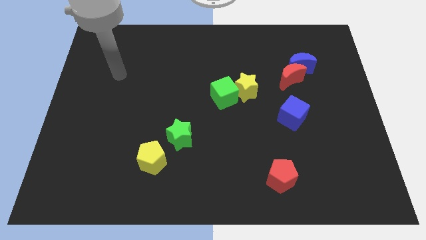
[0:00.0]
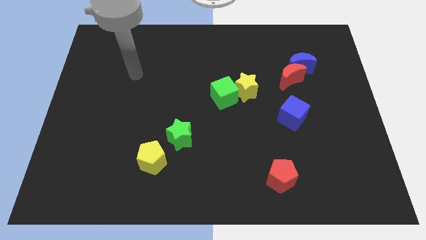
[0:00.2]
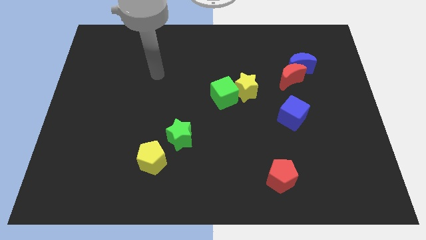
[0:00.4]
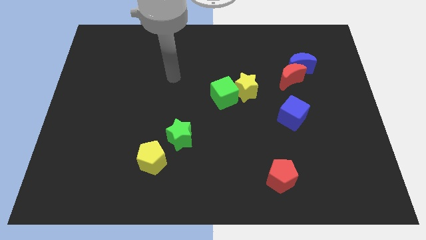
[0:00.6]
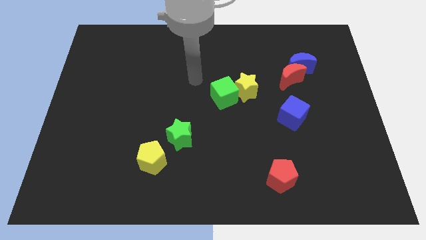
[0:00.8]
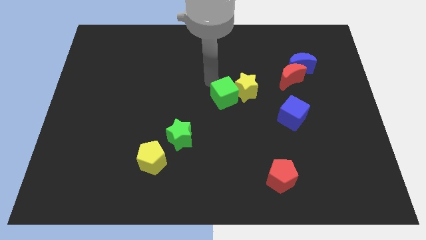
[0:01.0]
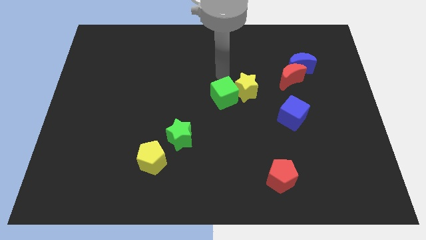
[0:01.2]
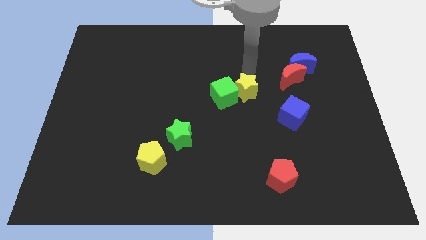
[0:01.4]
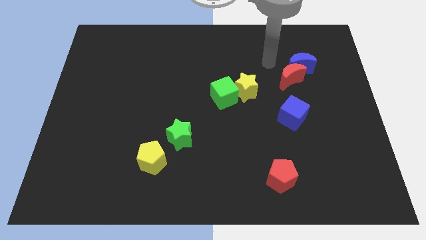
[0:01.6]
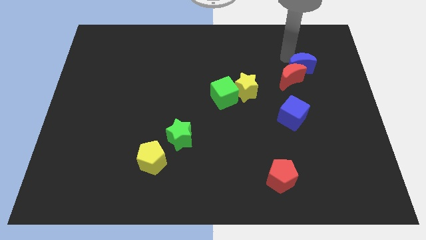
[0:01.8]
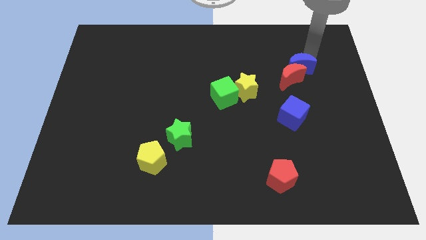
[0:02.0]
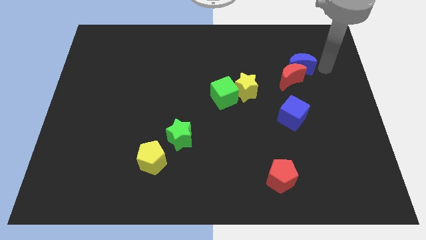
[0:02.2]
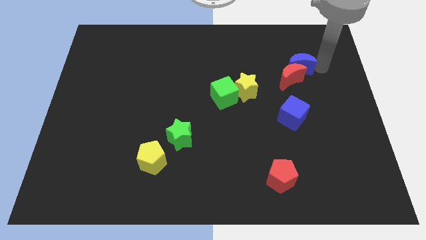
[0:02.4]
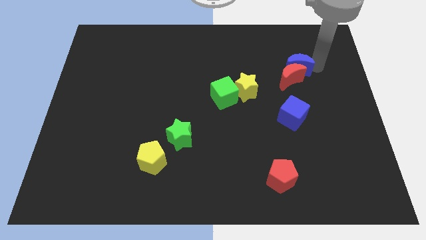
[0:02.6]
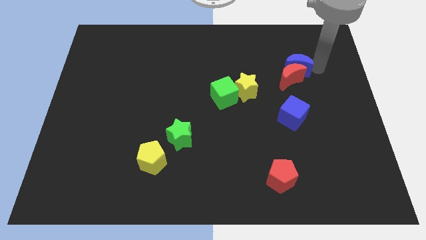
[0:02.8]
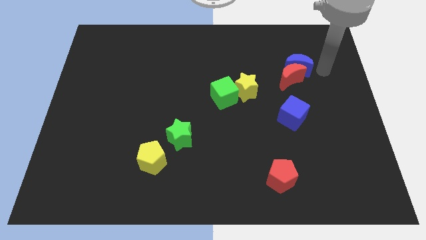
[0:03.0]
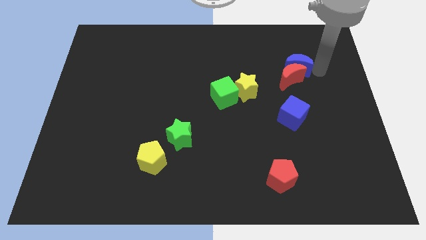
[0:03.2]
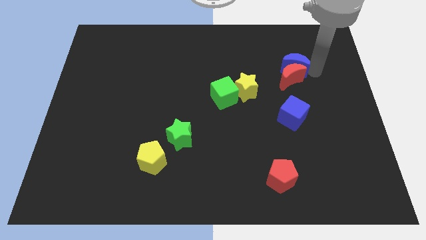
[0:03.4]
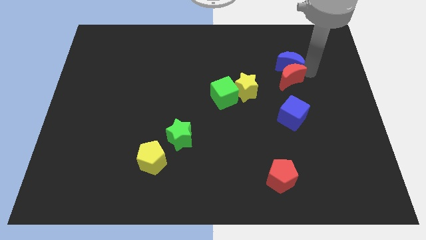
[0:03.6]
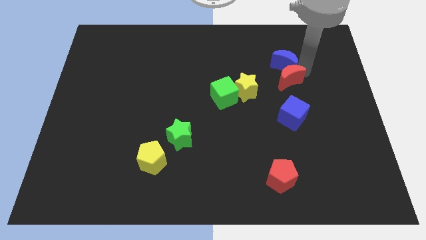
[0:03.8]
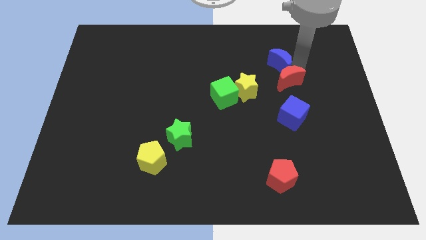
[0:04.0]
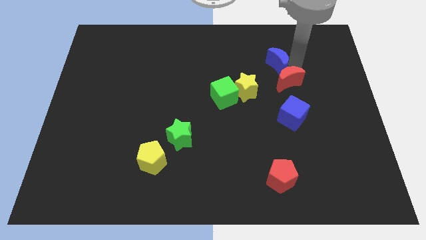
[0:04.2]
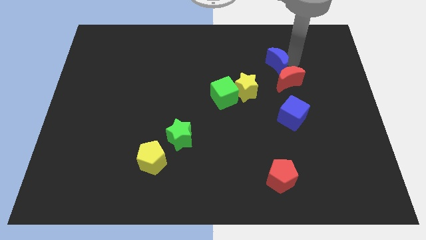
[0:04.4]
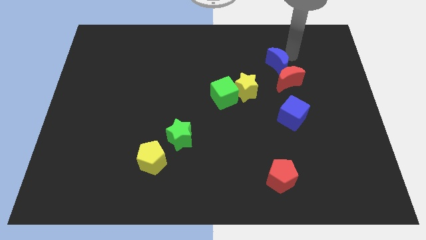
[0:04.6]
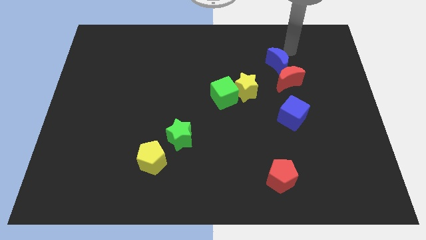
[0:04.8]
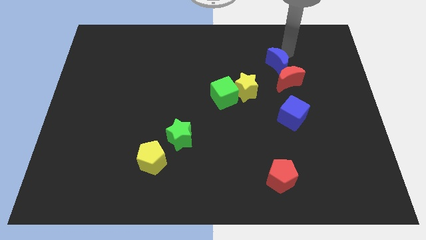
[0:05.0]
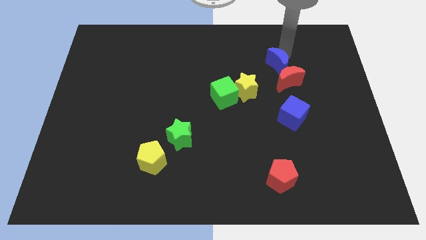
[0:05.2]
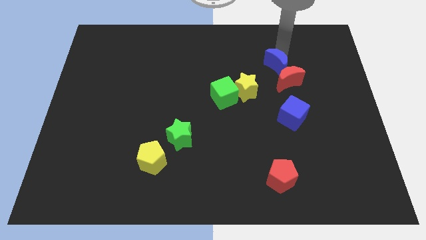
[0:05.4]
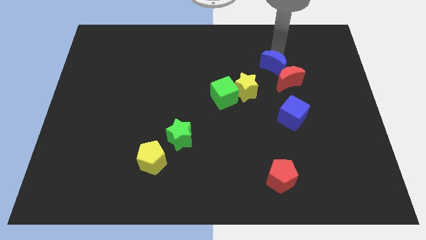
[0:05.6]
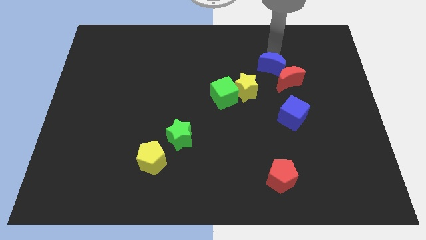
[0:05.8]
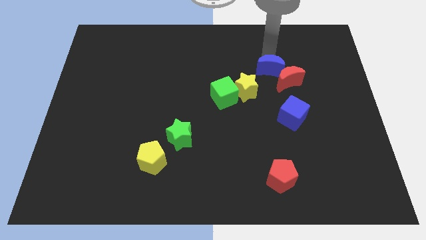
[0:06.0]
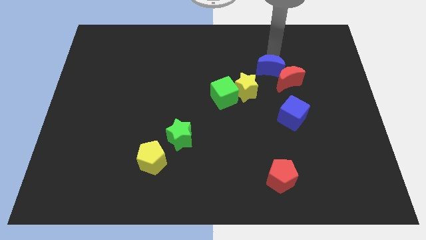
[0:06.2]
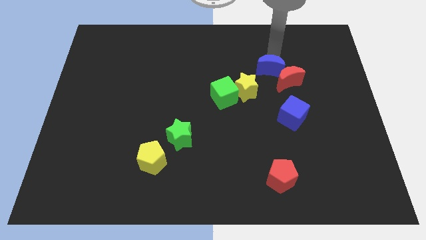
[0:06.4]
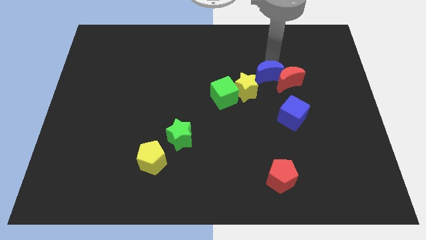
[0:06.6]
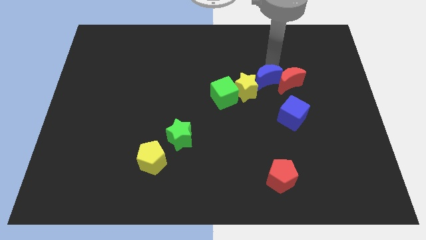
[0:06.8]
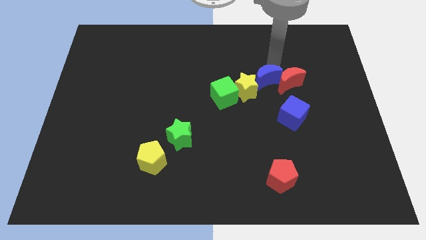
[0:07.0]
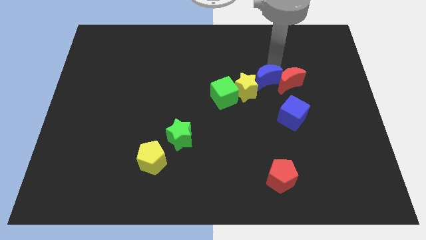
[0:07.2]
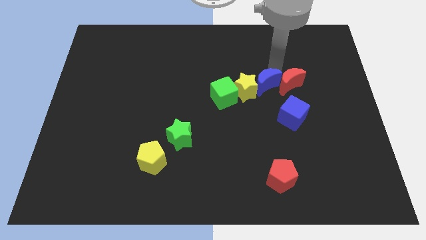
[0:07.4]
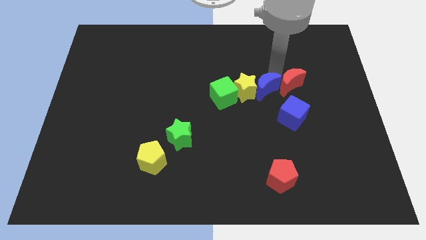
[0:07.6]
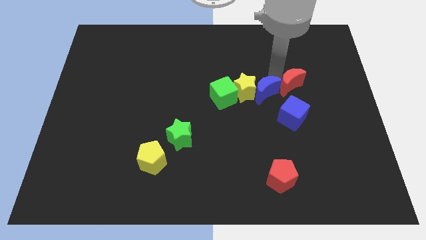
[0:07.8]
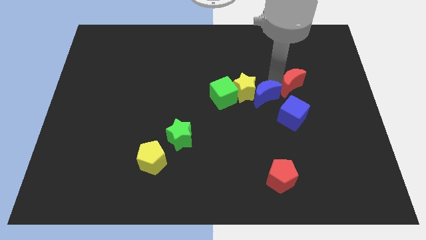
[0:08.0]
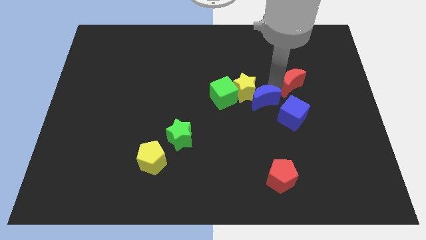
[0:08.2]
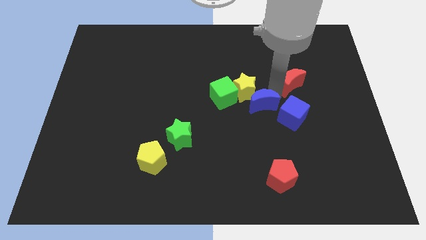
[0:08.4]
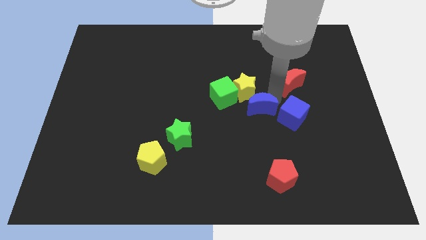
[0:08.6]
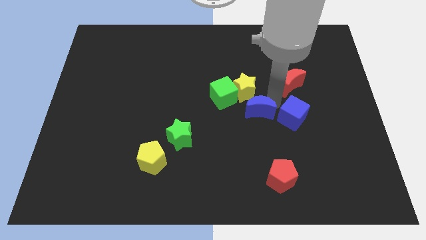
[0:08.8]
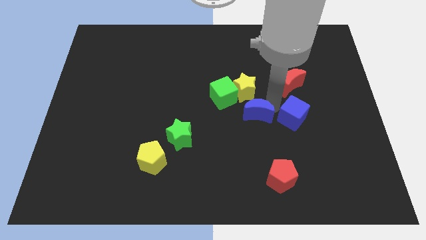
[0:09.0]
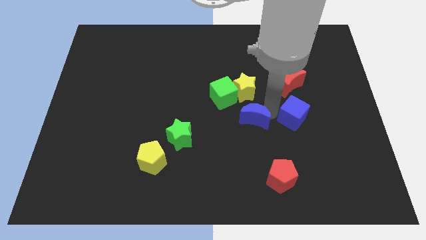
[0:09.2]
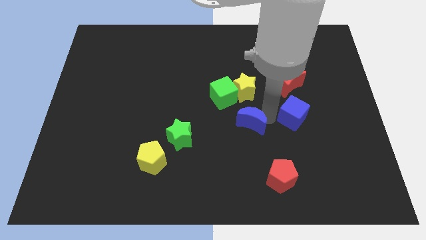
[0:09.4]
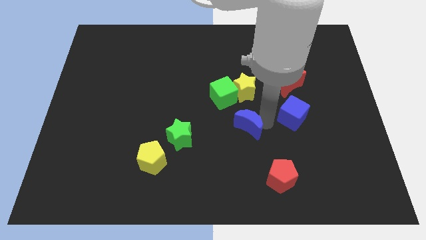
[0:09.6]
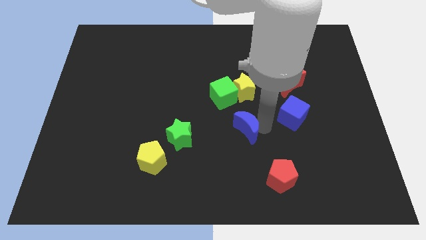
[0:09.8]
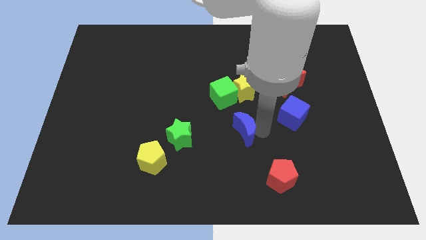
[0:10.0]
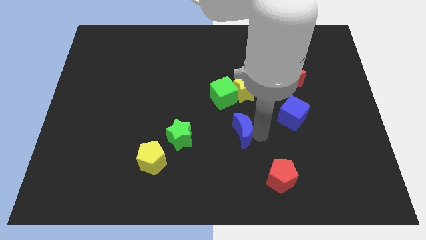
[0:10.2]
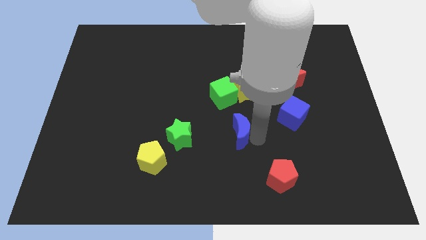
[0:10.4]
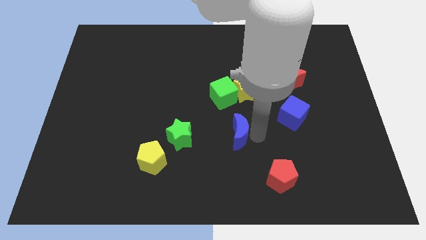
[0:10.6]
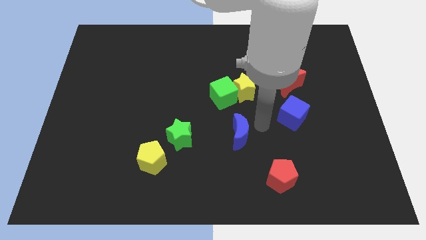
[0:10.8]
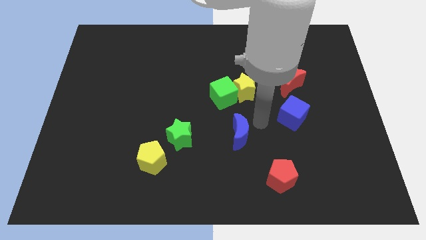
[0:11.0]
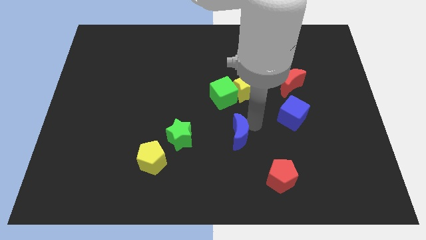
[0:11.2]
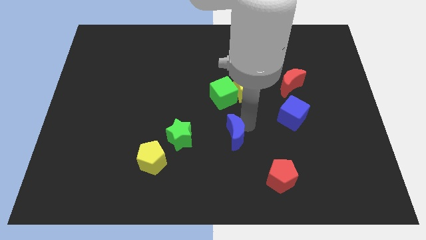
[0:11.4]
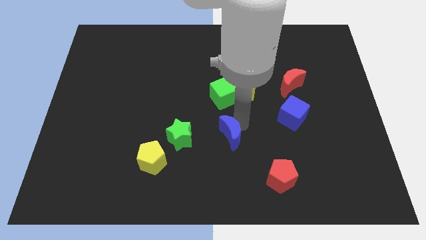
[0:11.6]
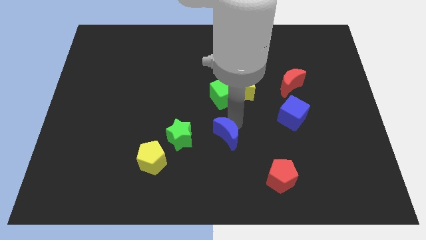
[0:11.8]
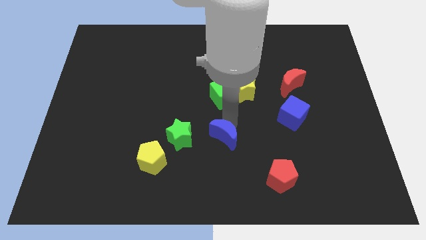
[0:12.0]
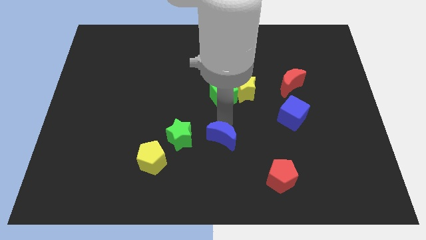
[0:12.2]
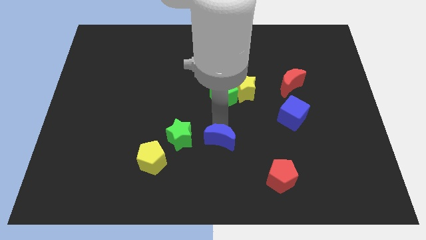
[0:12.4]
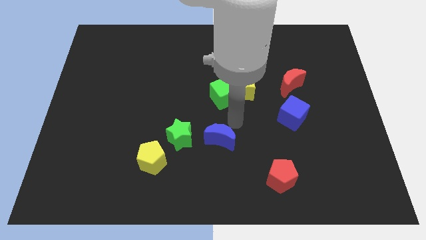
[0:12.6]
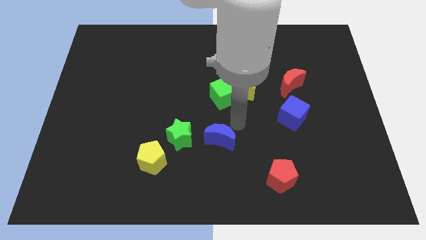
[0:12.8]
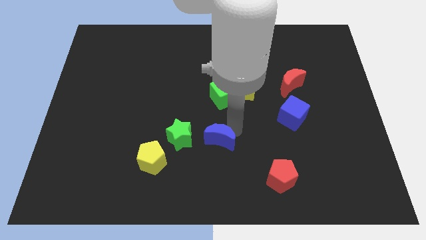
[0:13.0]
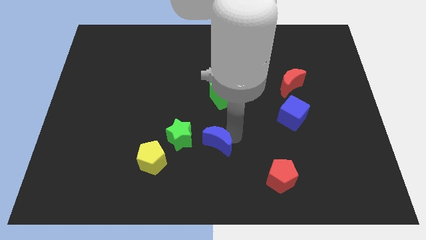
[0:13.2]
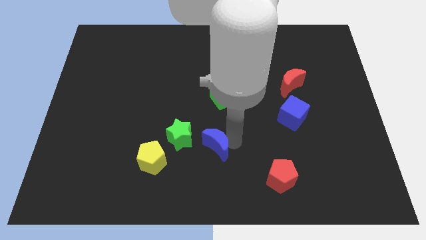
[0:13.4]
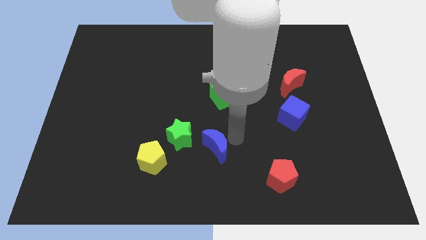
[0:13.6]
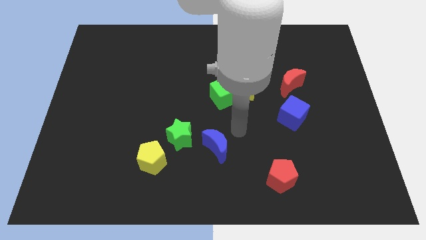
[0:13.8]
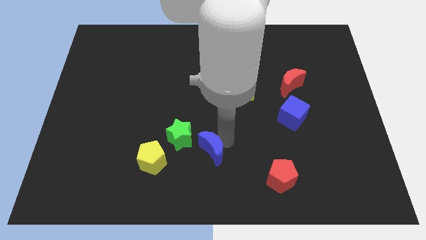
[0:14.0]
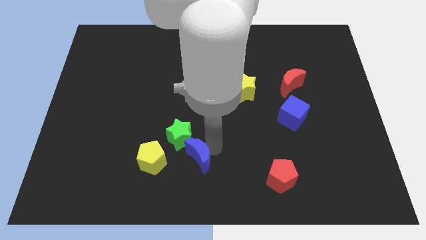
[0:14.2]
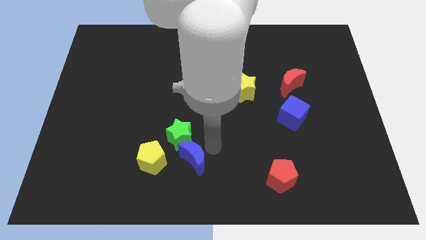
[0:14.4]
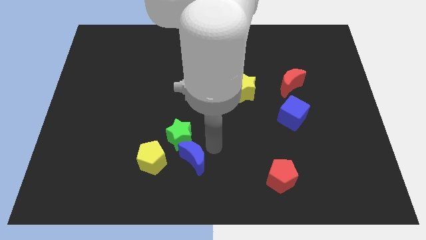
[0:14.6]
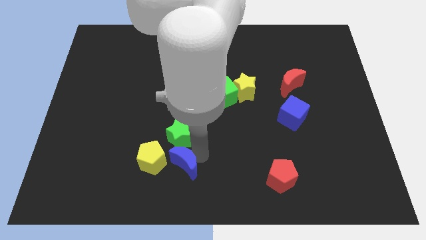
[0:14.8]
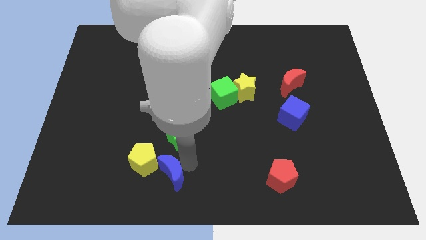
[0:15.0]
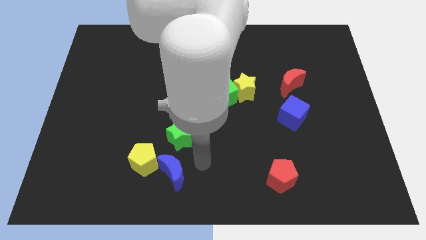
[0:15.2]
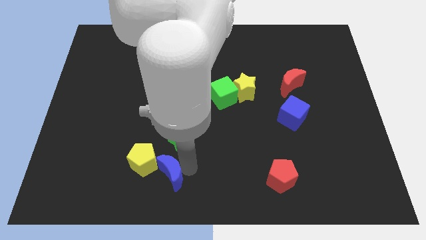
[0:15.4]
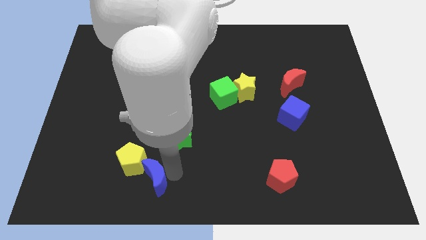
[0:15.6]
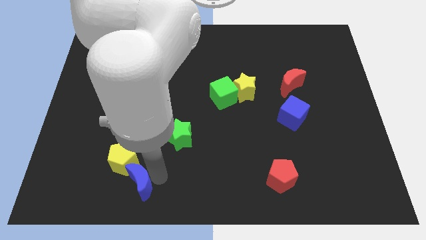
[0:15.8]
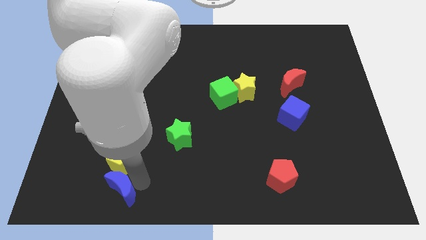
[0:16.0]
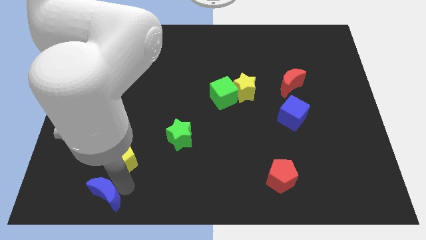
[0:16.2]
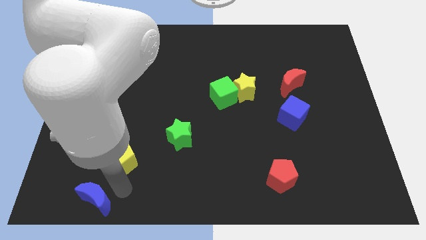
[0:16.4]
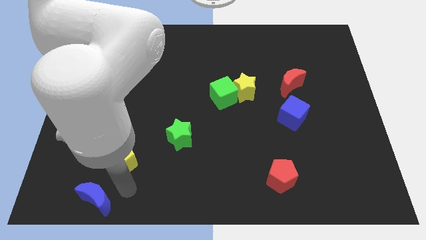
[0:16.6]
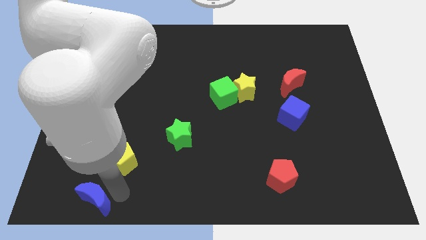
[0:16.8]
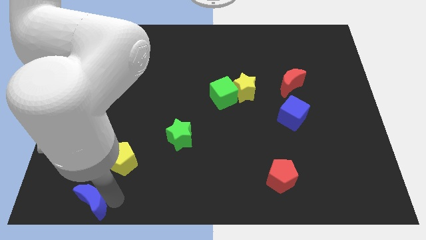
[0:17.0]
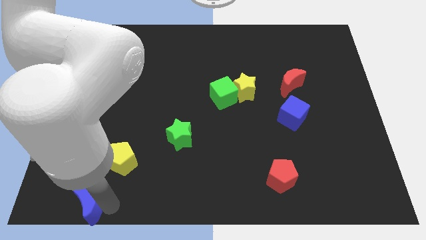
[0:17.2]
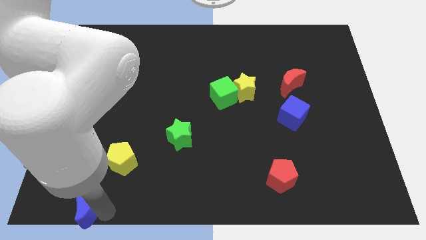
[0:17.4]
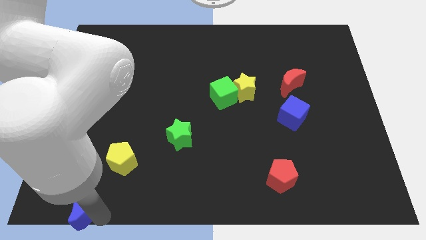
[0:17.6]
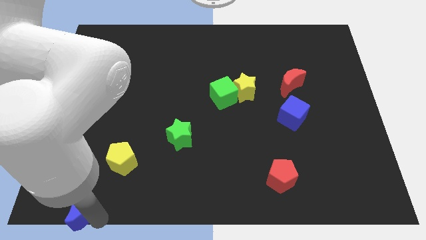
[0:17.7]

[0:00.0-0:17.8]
push the blue moon to the bottom left corner
